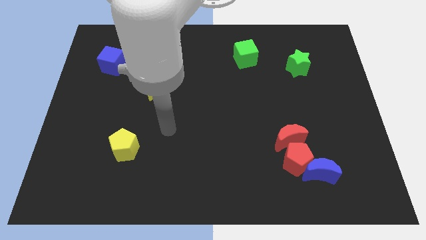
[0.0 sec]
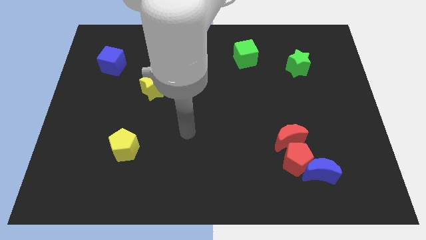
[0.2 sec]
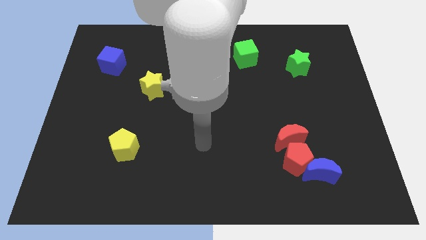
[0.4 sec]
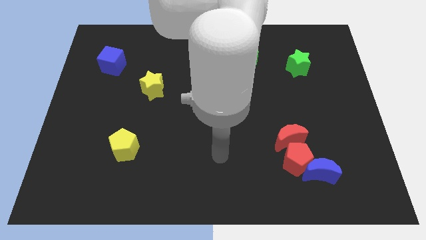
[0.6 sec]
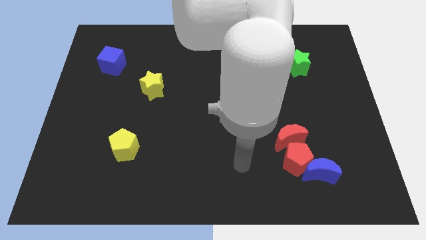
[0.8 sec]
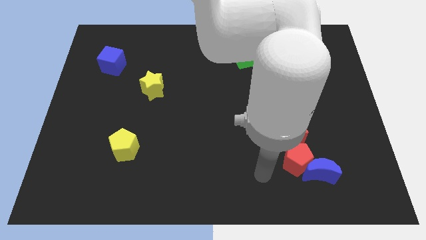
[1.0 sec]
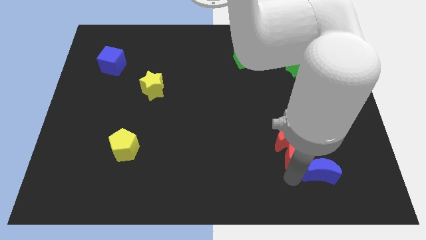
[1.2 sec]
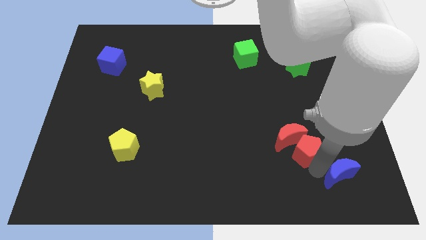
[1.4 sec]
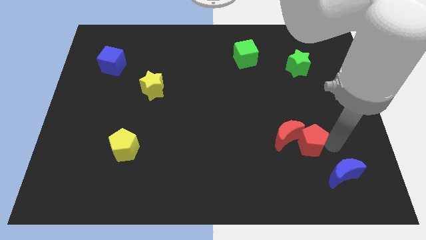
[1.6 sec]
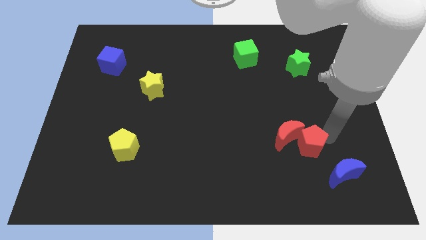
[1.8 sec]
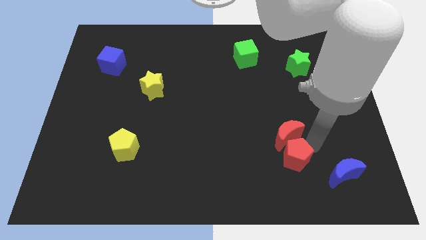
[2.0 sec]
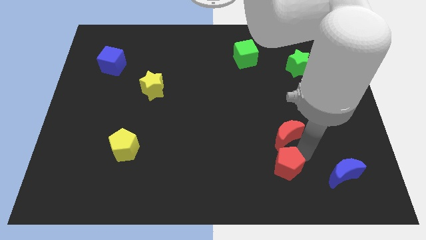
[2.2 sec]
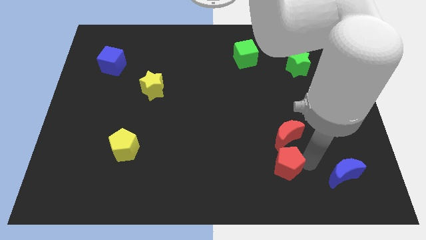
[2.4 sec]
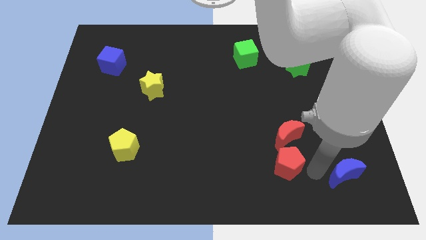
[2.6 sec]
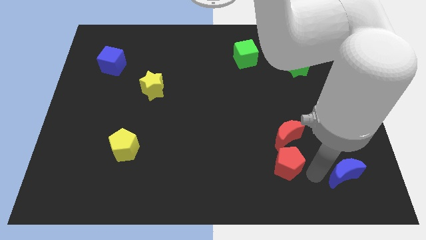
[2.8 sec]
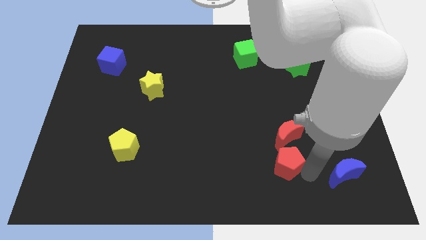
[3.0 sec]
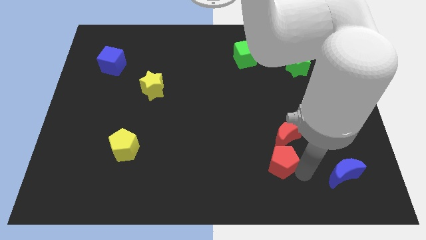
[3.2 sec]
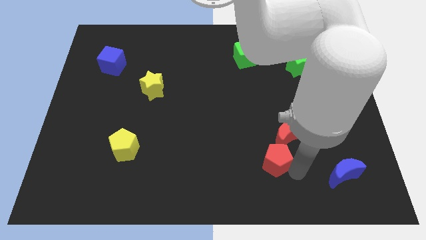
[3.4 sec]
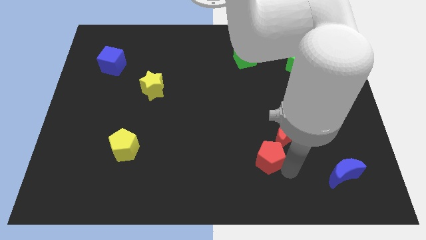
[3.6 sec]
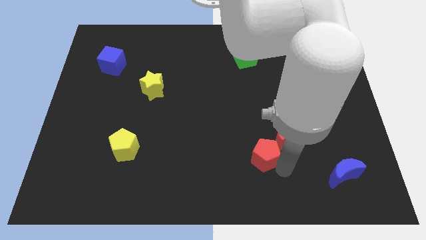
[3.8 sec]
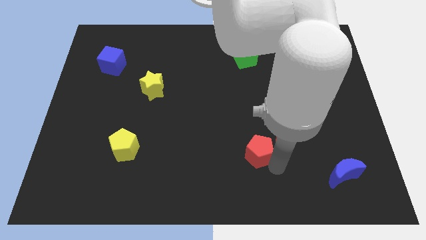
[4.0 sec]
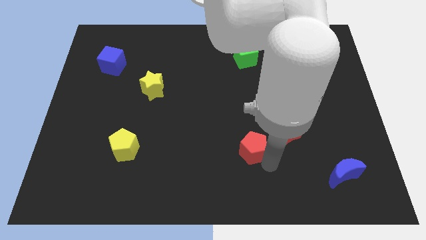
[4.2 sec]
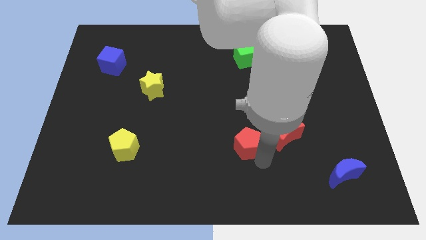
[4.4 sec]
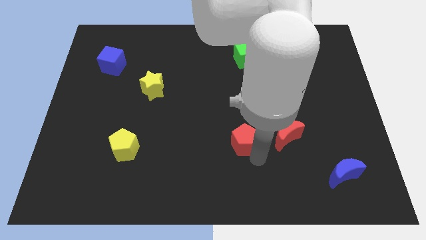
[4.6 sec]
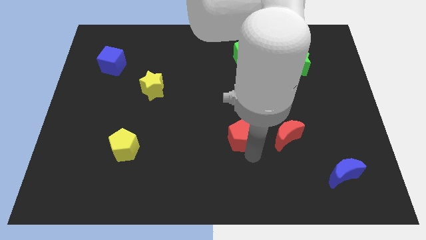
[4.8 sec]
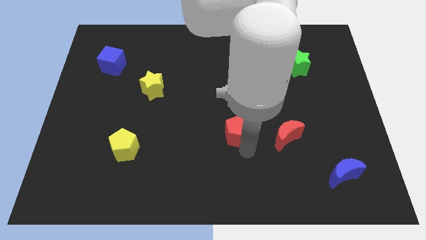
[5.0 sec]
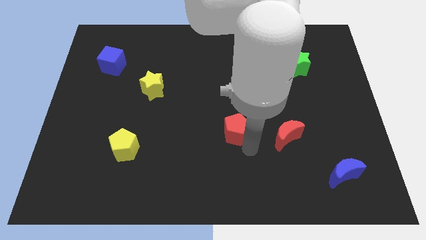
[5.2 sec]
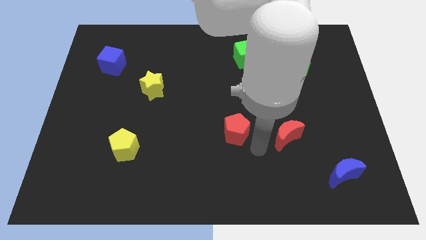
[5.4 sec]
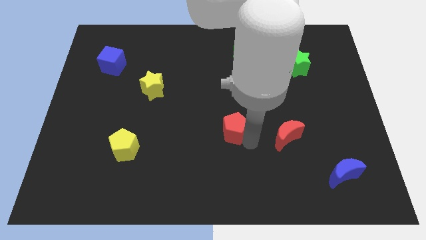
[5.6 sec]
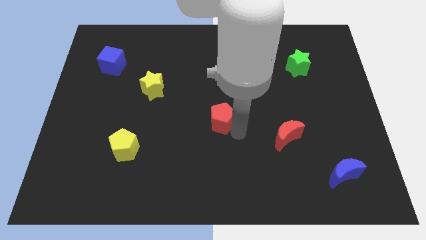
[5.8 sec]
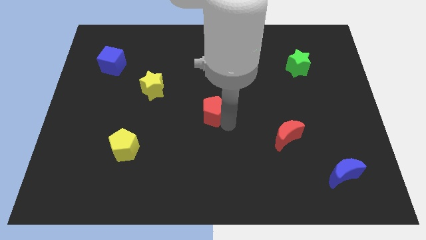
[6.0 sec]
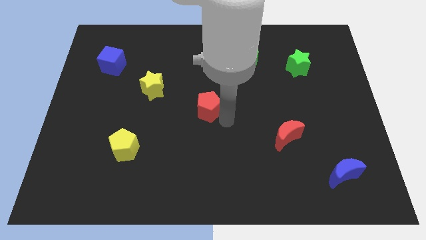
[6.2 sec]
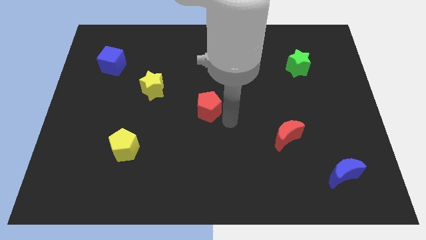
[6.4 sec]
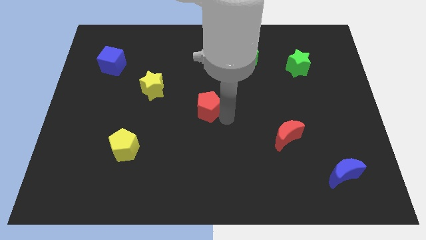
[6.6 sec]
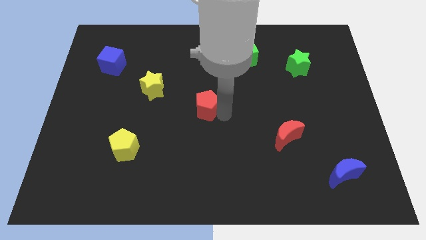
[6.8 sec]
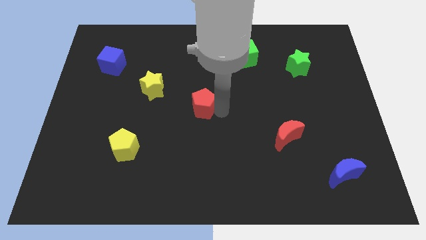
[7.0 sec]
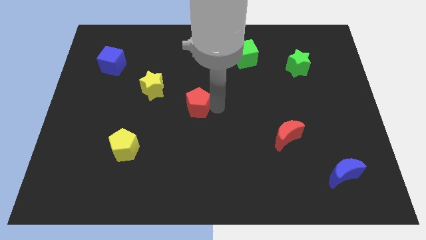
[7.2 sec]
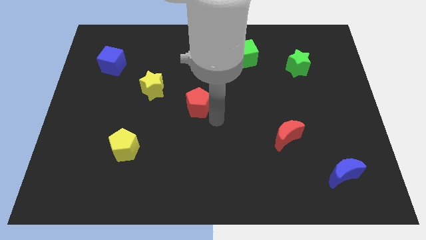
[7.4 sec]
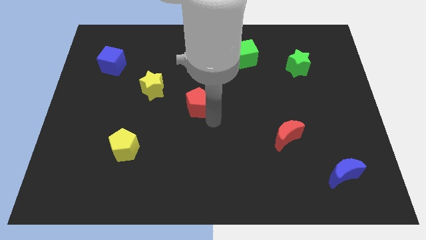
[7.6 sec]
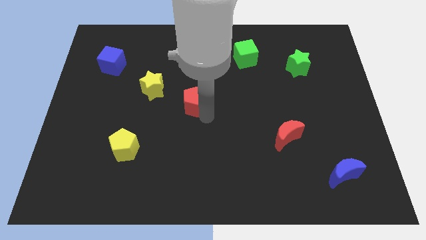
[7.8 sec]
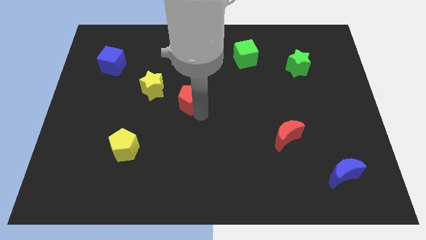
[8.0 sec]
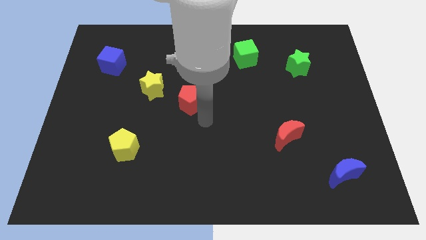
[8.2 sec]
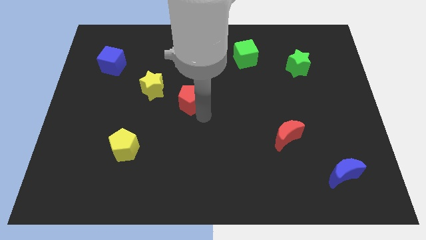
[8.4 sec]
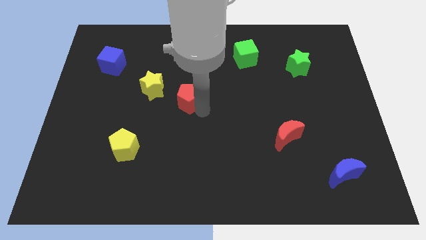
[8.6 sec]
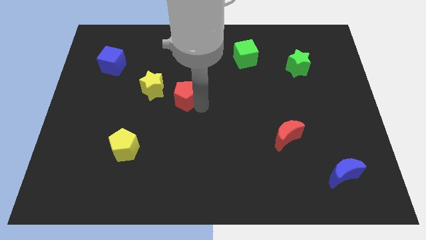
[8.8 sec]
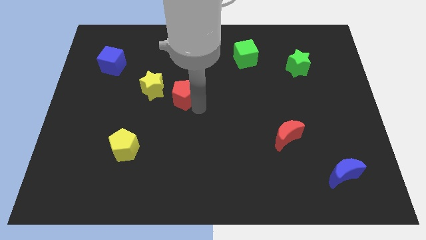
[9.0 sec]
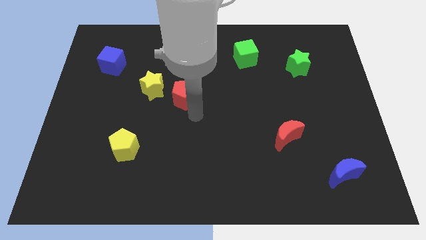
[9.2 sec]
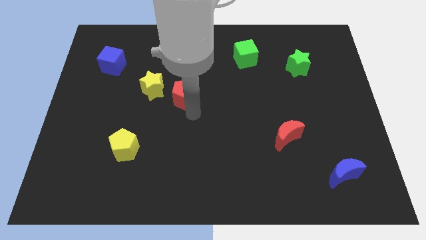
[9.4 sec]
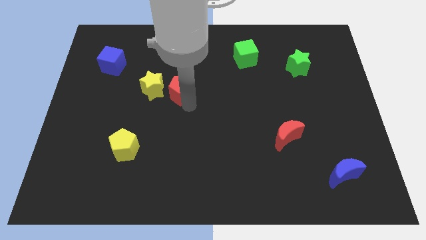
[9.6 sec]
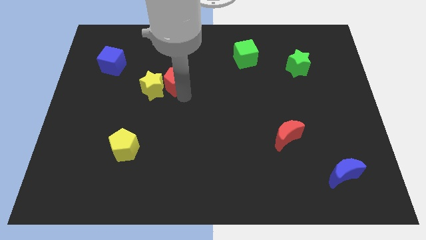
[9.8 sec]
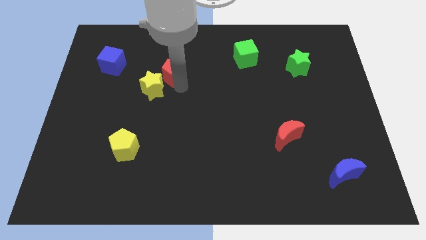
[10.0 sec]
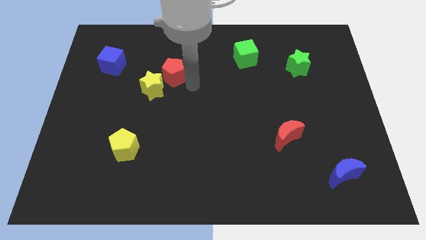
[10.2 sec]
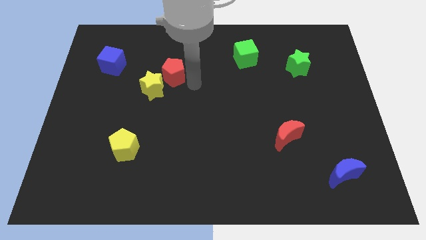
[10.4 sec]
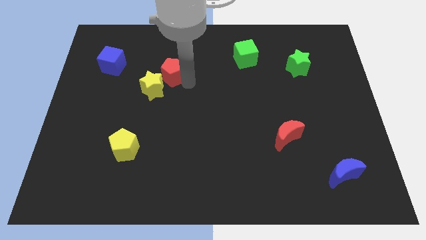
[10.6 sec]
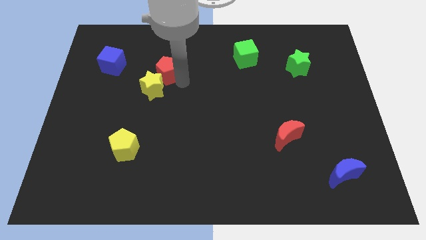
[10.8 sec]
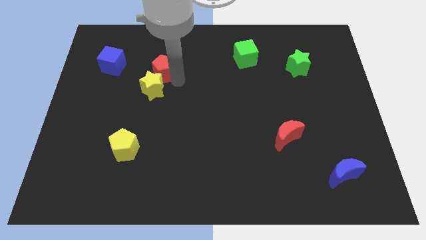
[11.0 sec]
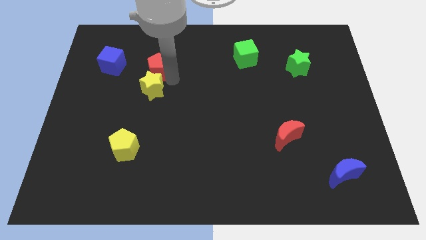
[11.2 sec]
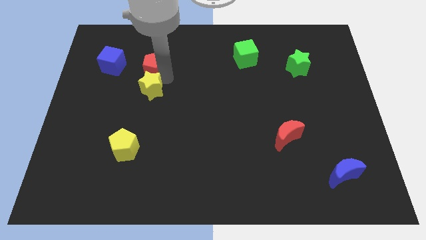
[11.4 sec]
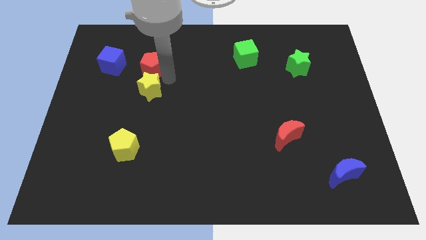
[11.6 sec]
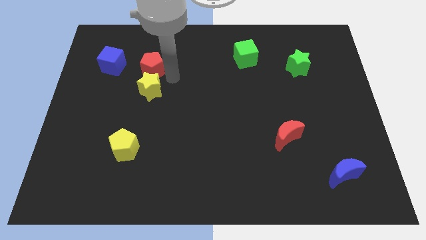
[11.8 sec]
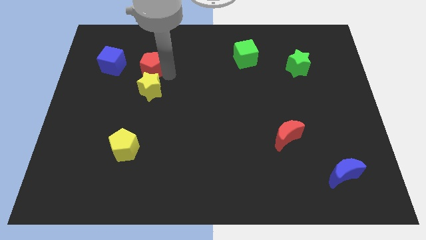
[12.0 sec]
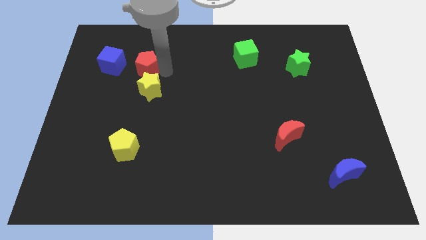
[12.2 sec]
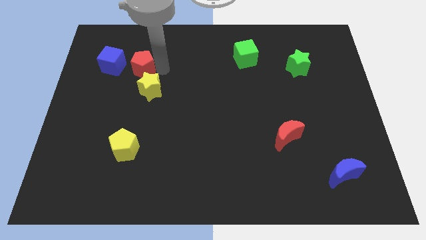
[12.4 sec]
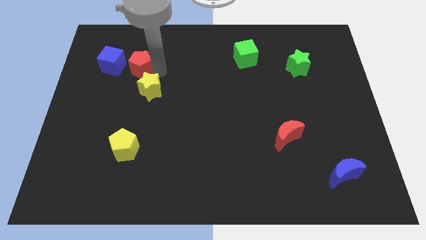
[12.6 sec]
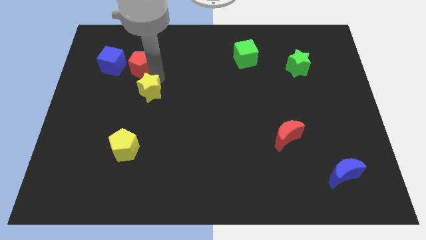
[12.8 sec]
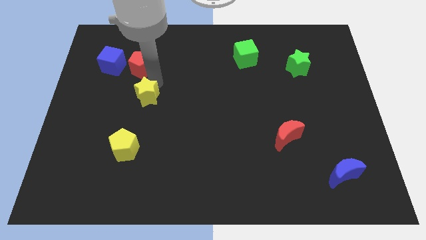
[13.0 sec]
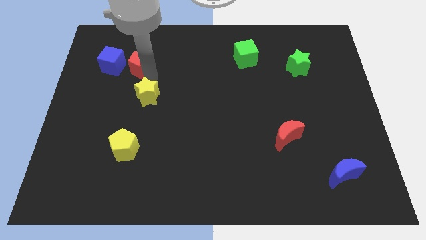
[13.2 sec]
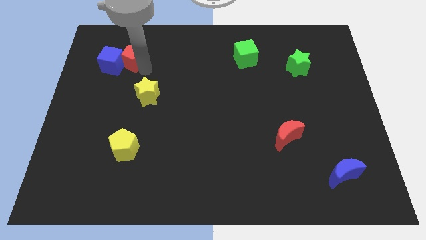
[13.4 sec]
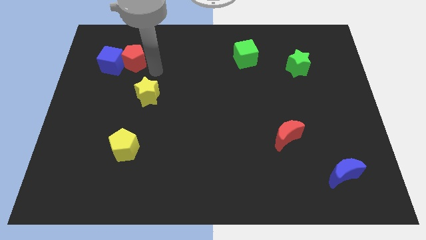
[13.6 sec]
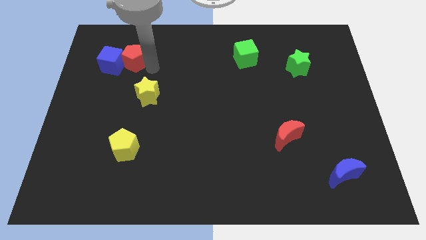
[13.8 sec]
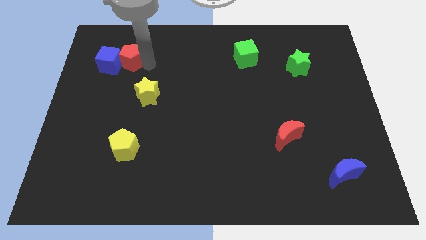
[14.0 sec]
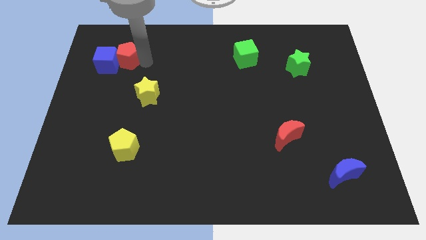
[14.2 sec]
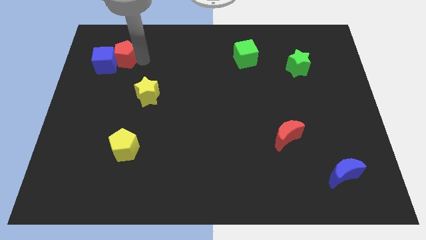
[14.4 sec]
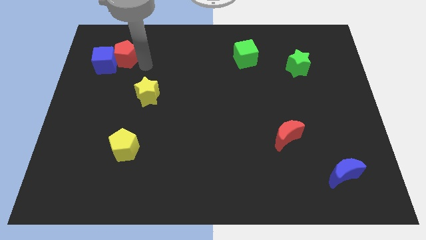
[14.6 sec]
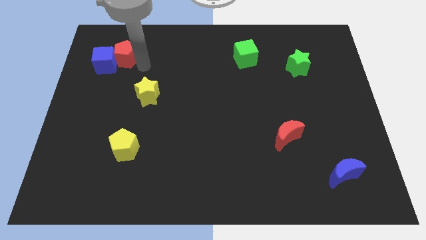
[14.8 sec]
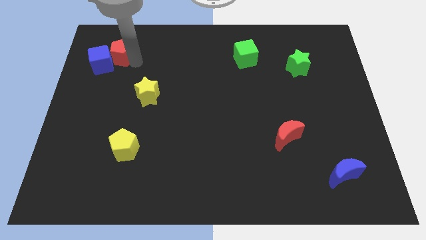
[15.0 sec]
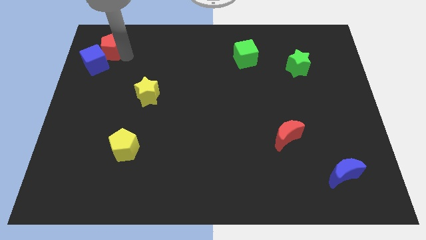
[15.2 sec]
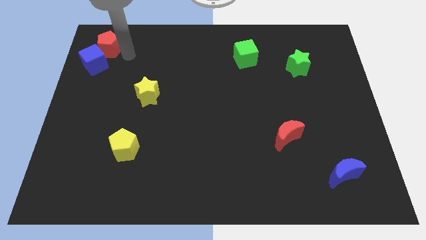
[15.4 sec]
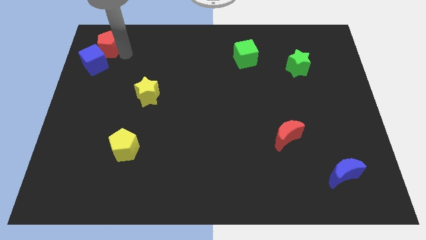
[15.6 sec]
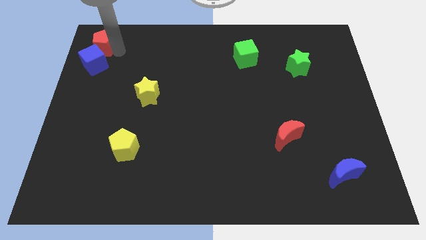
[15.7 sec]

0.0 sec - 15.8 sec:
move the red pentagon to the top left
